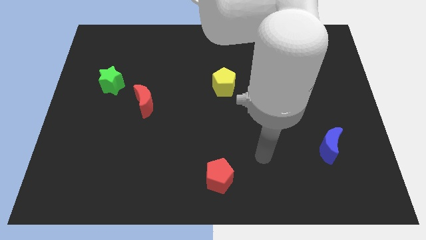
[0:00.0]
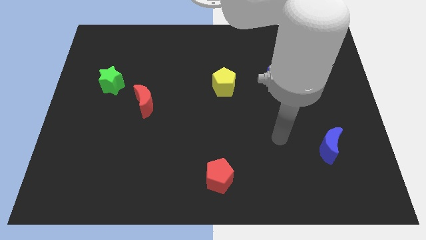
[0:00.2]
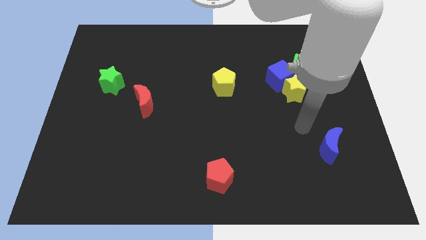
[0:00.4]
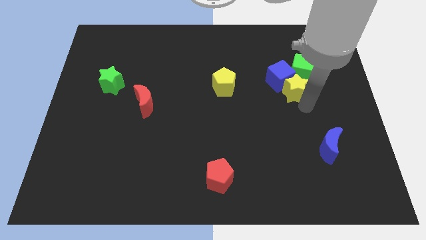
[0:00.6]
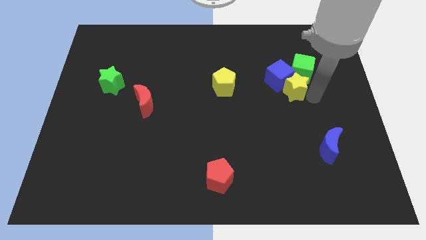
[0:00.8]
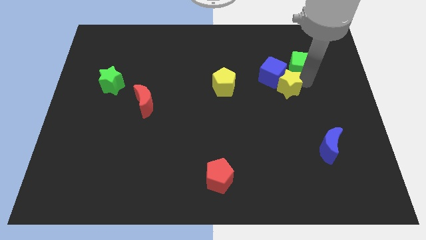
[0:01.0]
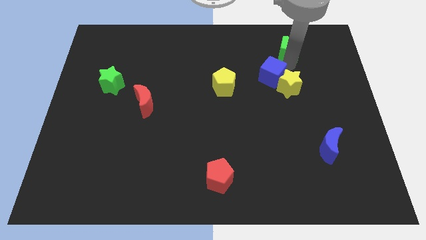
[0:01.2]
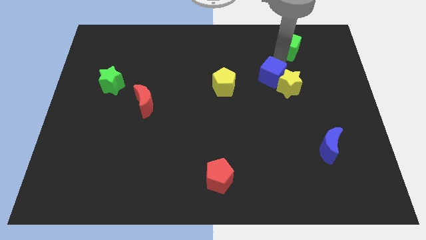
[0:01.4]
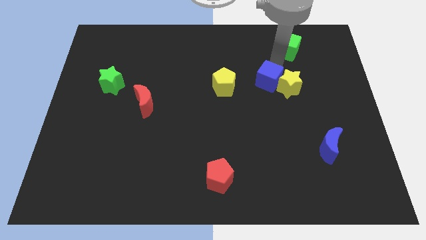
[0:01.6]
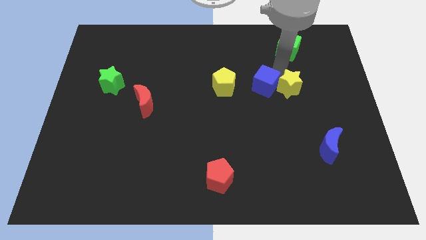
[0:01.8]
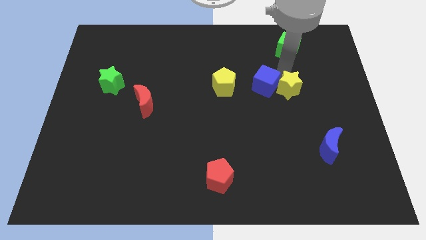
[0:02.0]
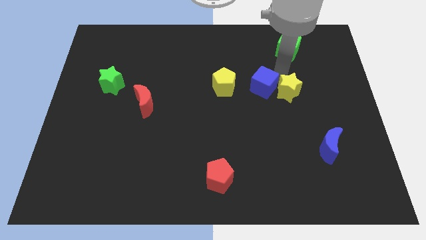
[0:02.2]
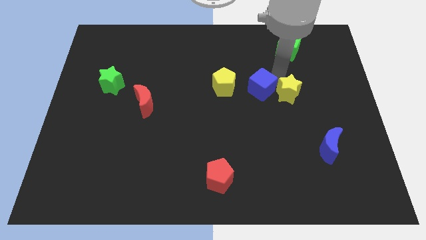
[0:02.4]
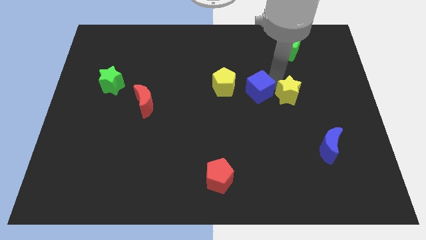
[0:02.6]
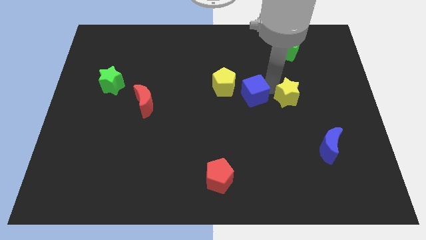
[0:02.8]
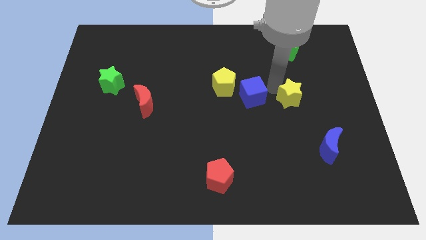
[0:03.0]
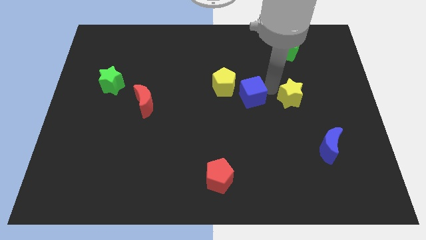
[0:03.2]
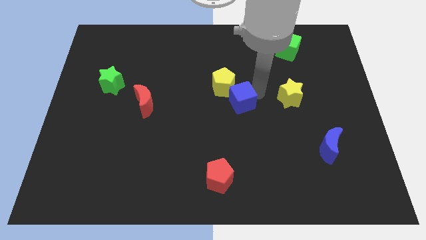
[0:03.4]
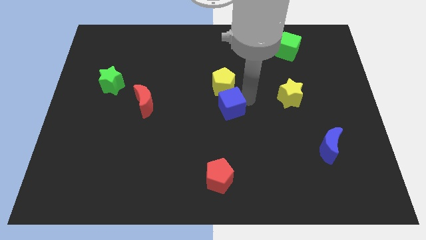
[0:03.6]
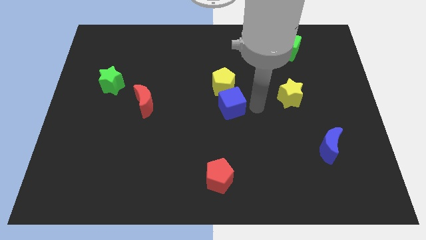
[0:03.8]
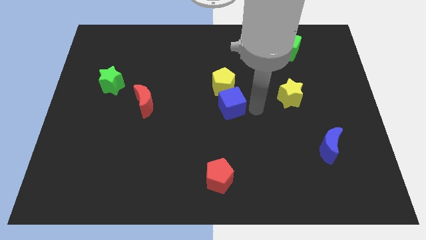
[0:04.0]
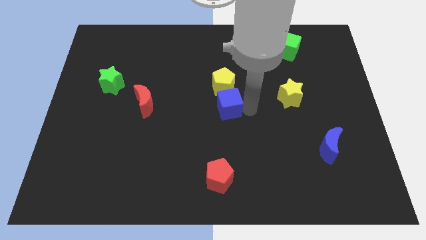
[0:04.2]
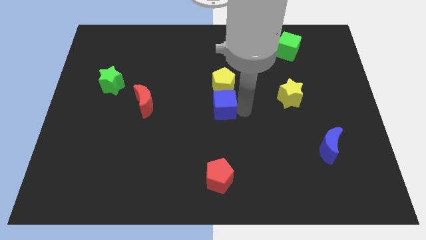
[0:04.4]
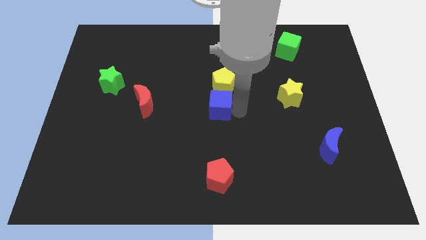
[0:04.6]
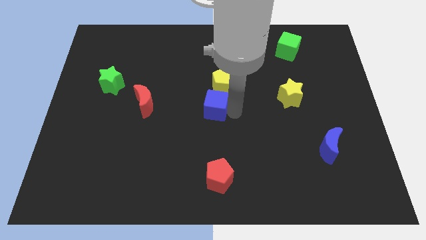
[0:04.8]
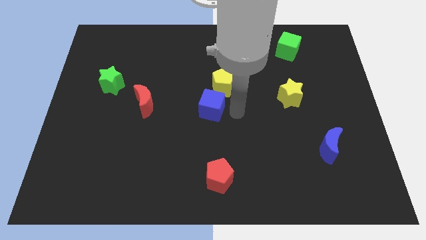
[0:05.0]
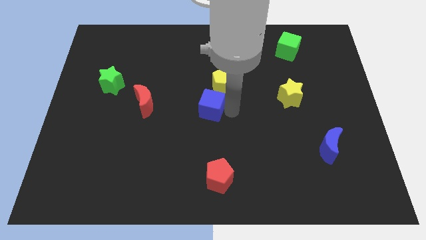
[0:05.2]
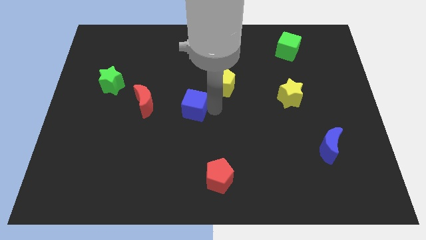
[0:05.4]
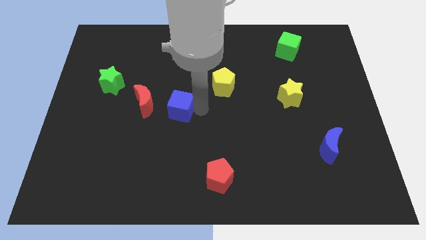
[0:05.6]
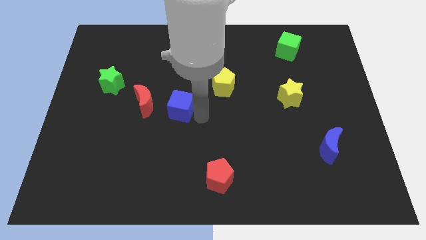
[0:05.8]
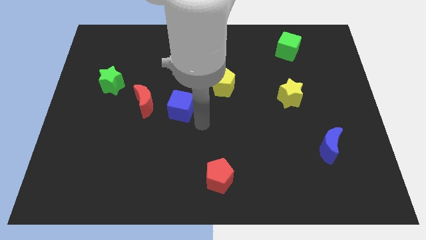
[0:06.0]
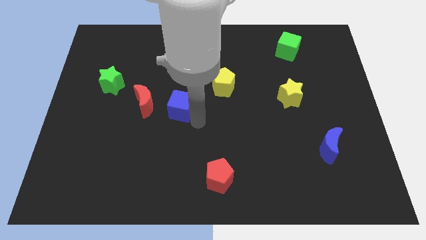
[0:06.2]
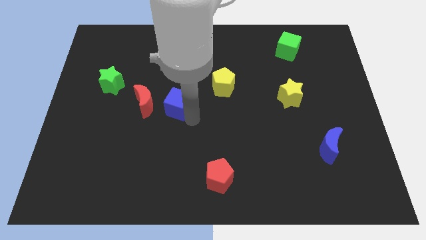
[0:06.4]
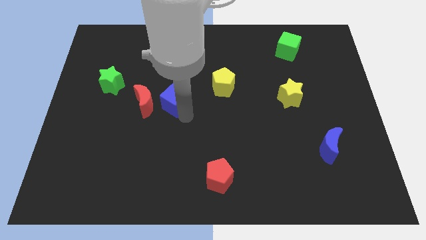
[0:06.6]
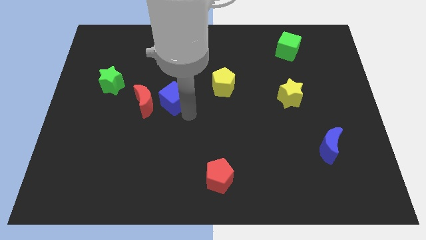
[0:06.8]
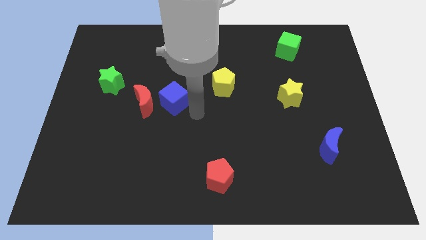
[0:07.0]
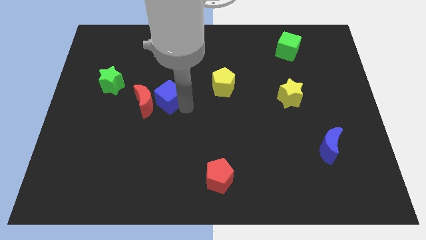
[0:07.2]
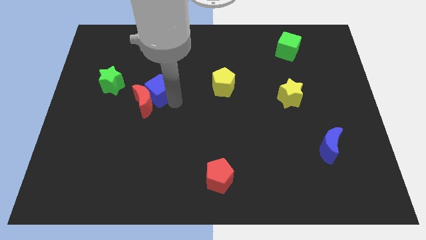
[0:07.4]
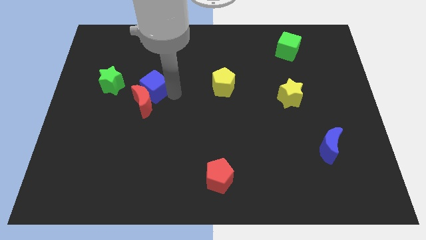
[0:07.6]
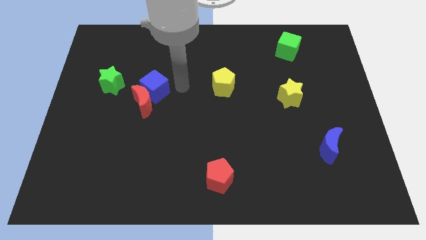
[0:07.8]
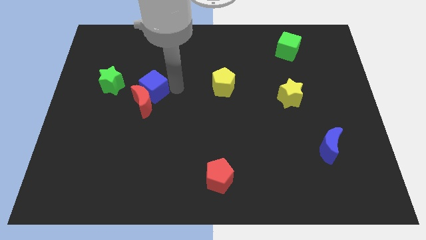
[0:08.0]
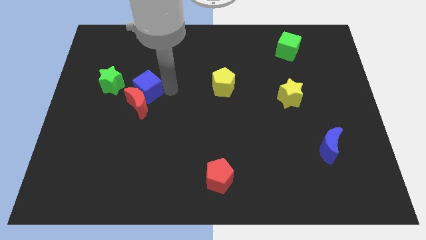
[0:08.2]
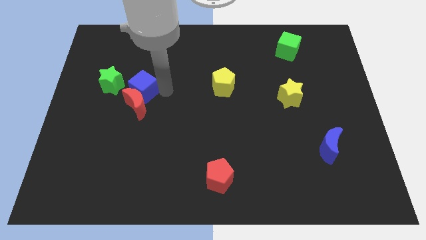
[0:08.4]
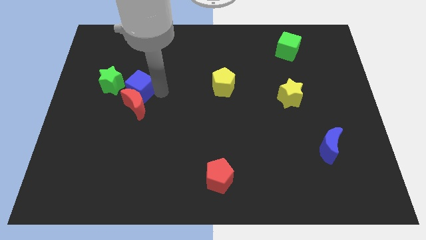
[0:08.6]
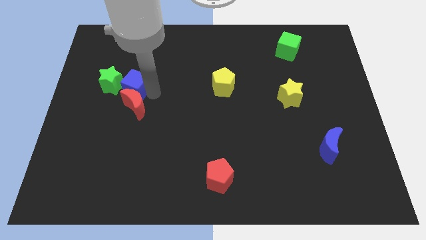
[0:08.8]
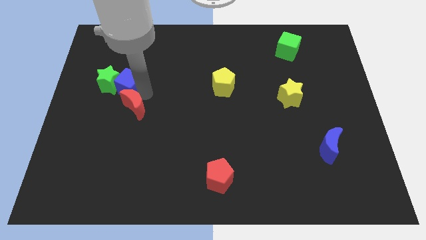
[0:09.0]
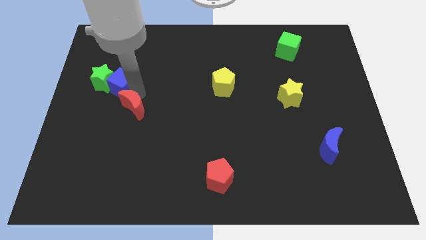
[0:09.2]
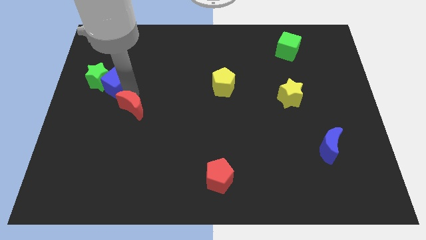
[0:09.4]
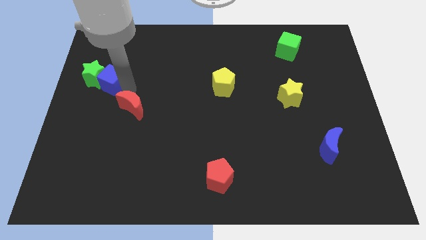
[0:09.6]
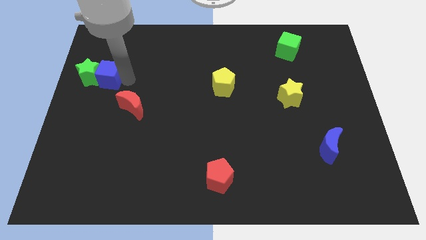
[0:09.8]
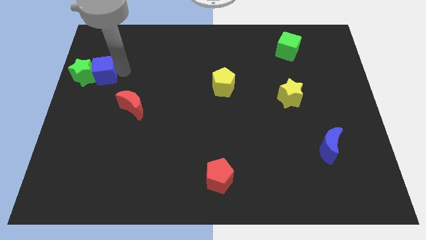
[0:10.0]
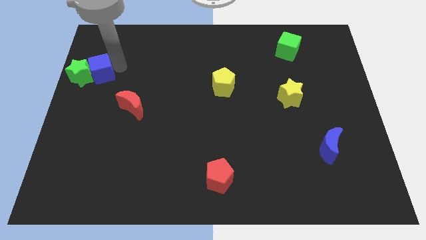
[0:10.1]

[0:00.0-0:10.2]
slide the blue cube to the left side

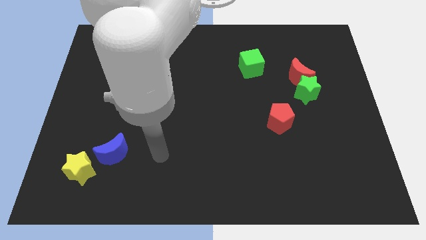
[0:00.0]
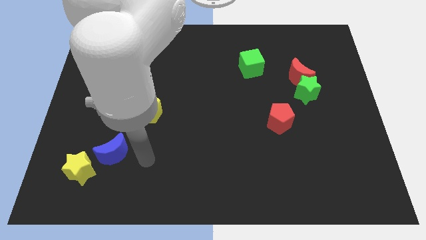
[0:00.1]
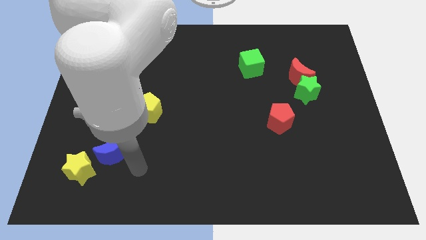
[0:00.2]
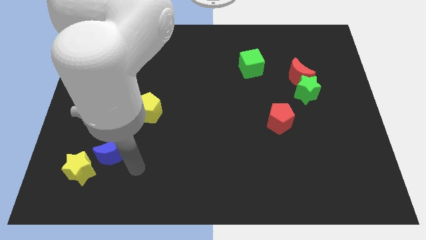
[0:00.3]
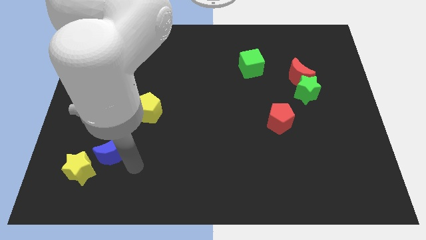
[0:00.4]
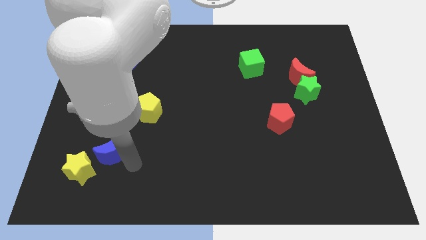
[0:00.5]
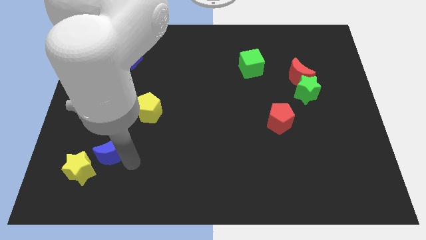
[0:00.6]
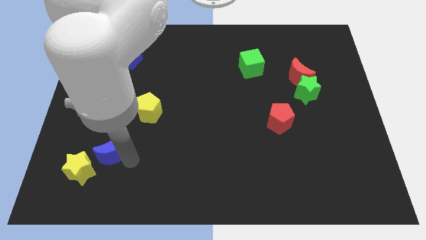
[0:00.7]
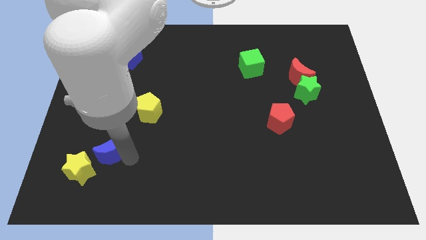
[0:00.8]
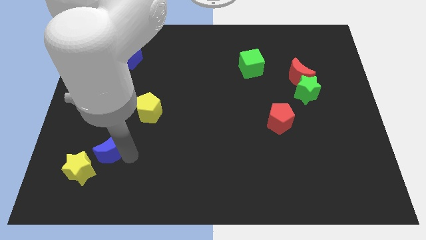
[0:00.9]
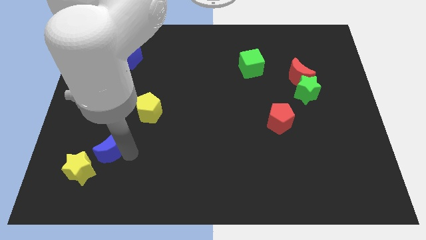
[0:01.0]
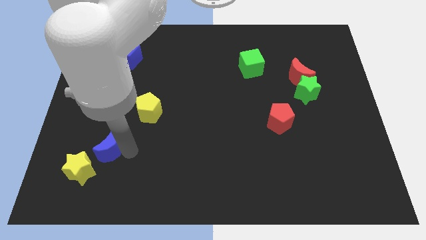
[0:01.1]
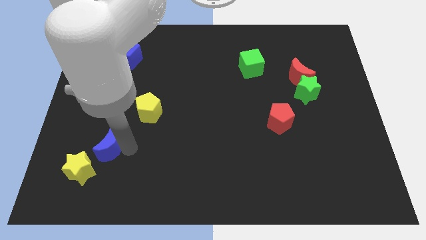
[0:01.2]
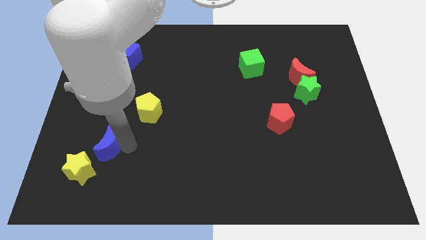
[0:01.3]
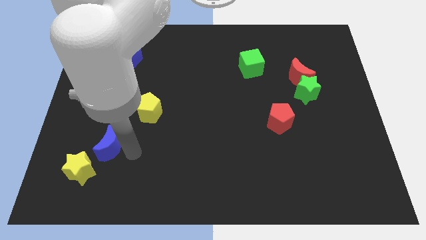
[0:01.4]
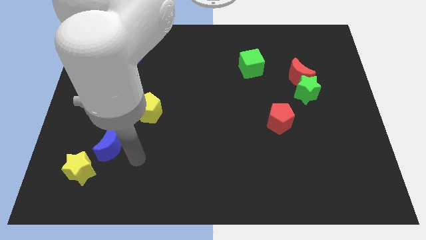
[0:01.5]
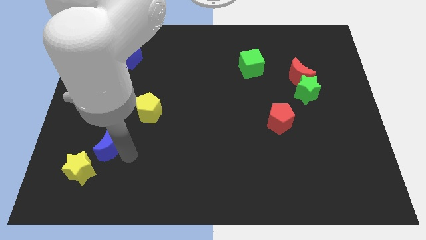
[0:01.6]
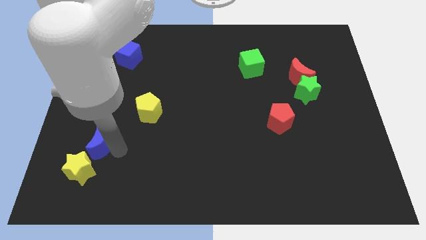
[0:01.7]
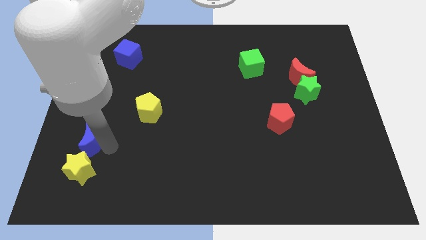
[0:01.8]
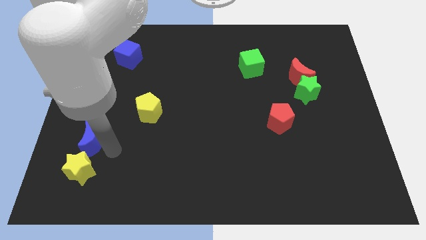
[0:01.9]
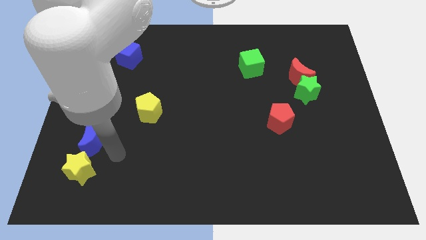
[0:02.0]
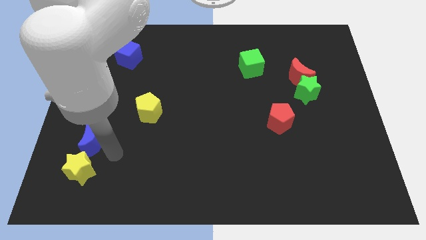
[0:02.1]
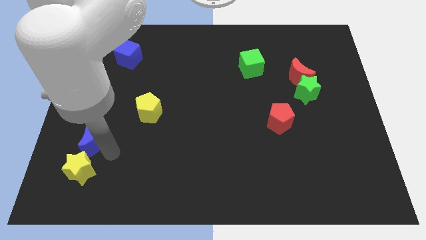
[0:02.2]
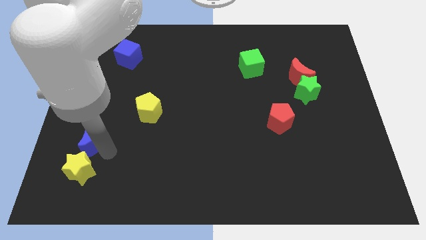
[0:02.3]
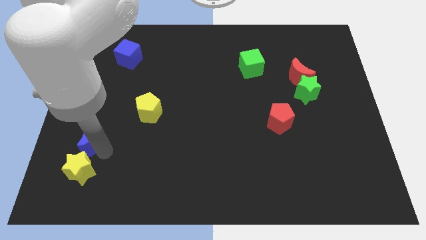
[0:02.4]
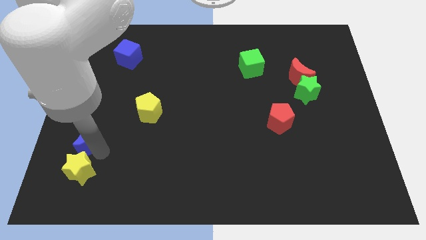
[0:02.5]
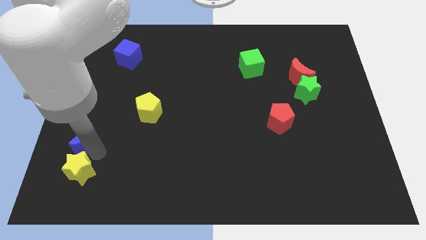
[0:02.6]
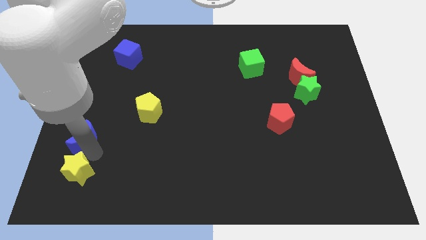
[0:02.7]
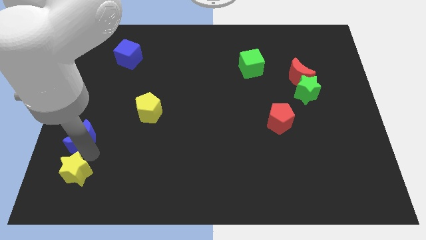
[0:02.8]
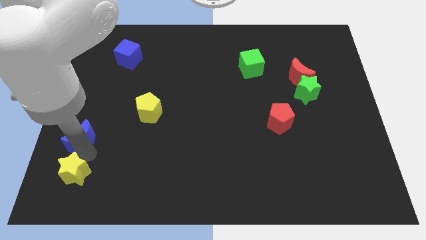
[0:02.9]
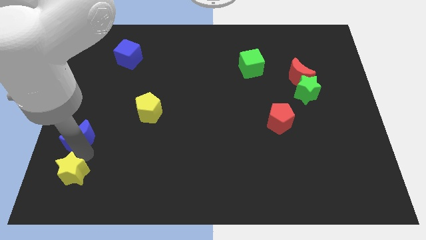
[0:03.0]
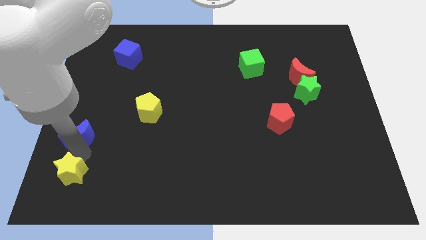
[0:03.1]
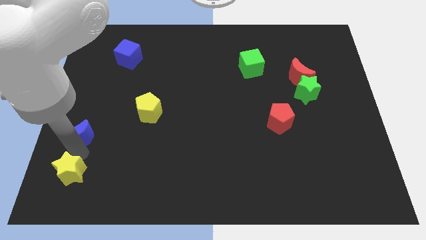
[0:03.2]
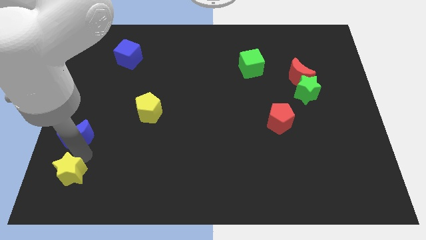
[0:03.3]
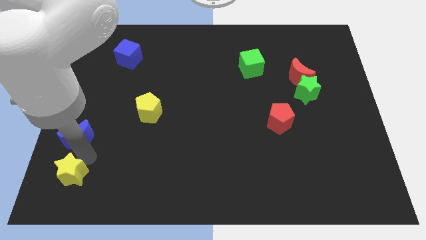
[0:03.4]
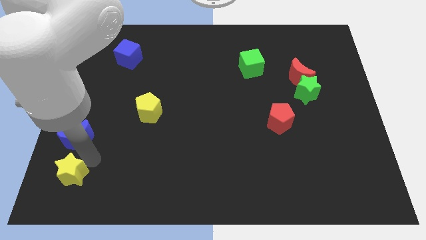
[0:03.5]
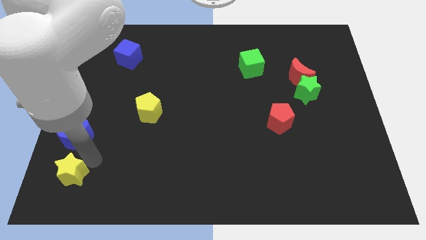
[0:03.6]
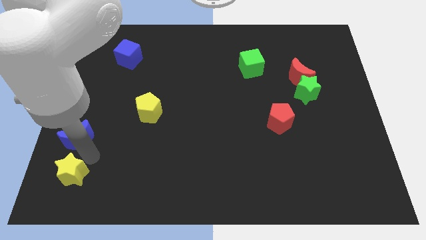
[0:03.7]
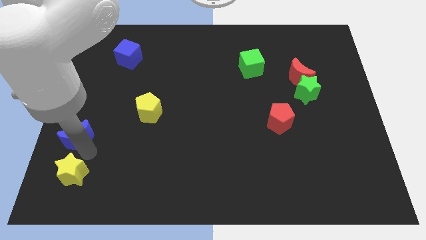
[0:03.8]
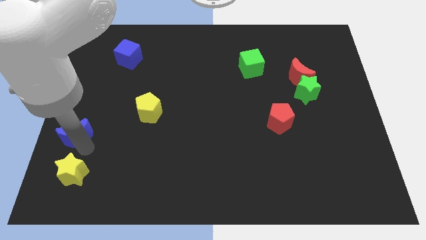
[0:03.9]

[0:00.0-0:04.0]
put the blue moon to the left side
